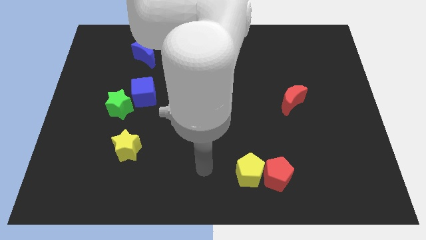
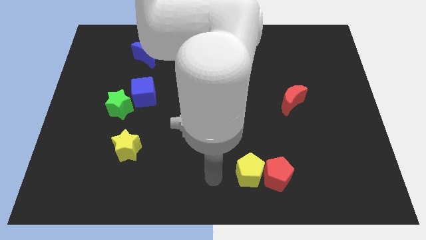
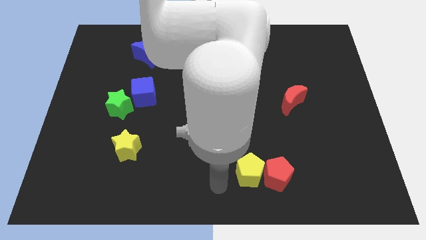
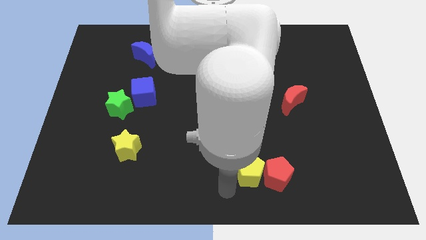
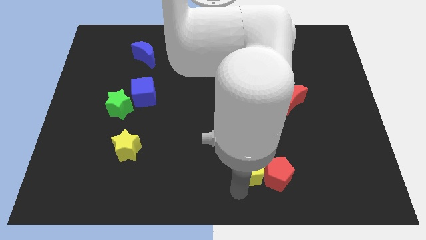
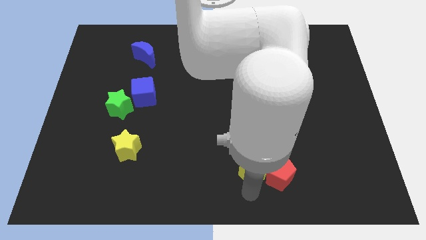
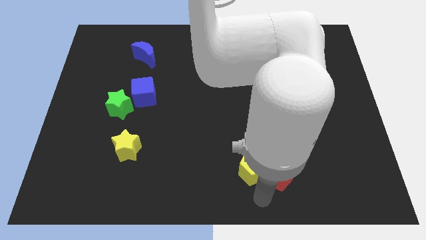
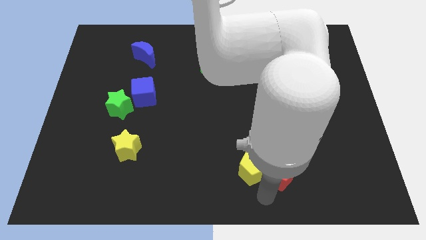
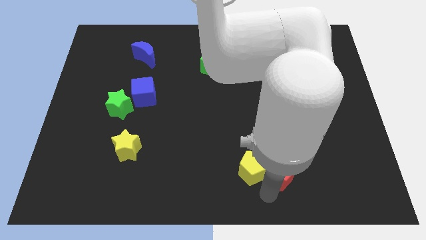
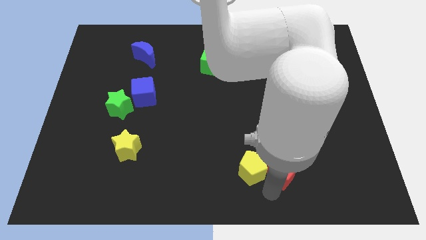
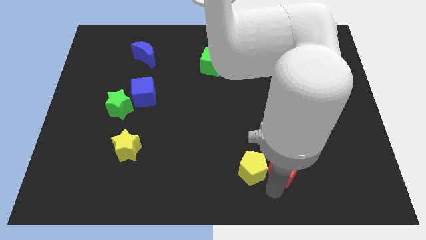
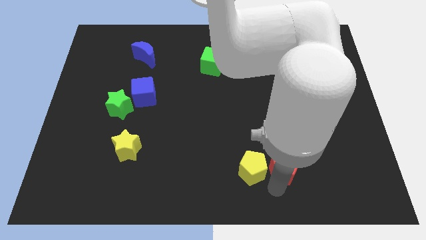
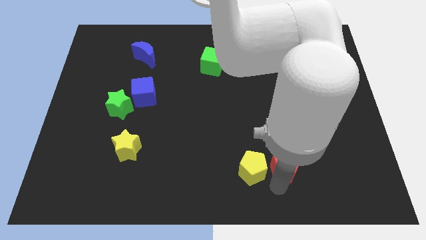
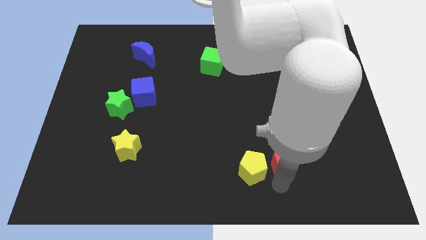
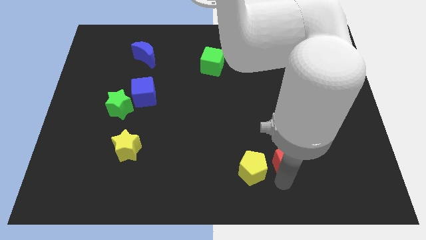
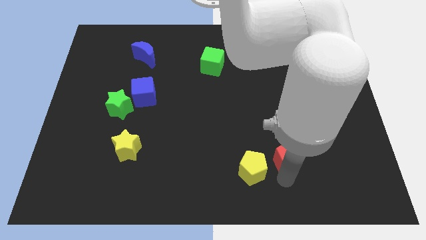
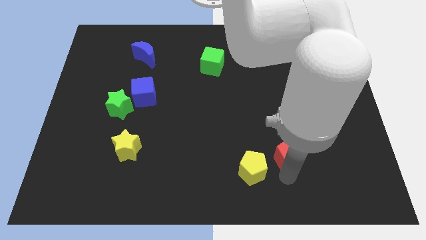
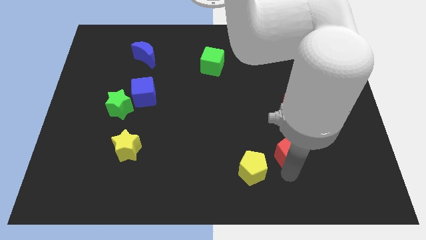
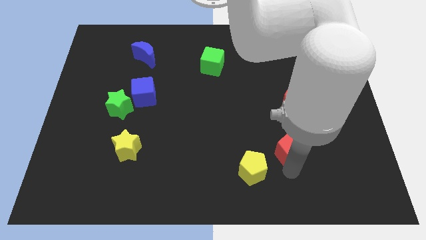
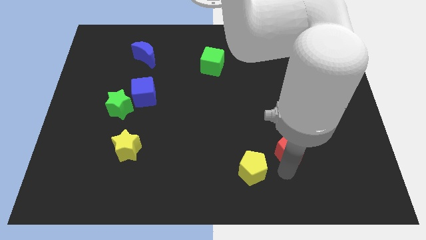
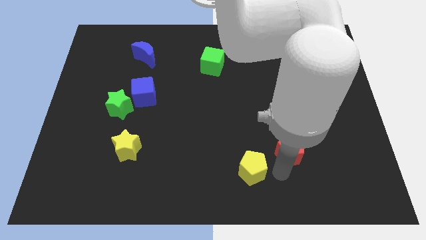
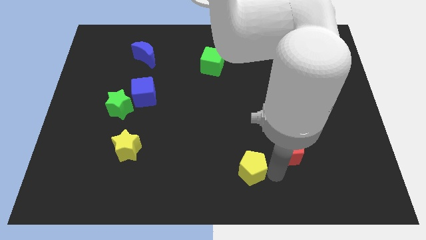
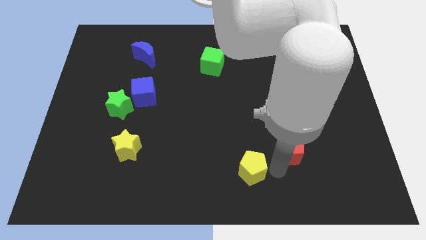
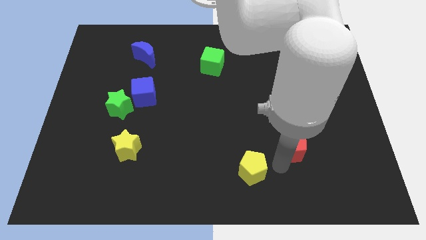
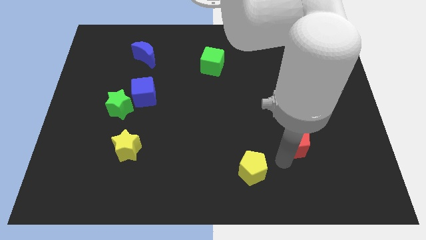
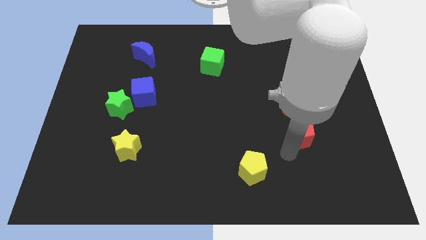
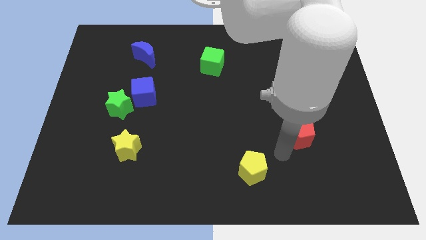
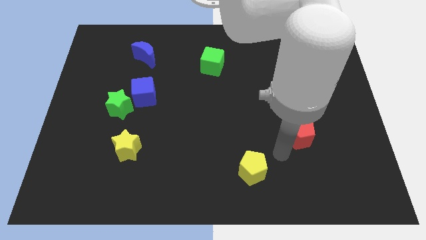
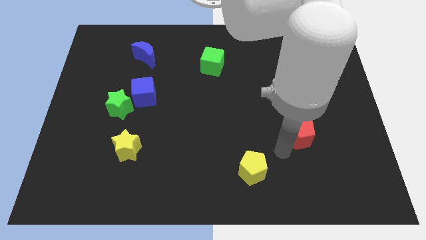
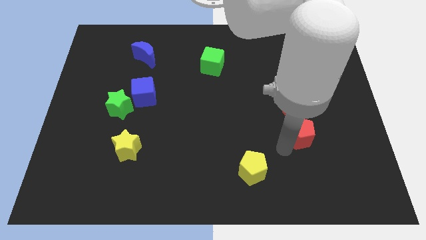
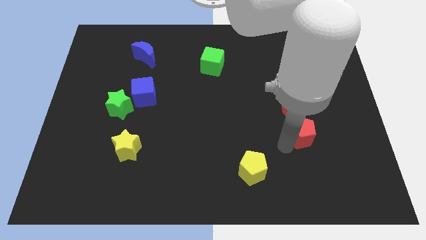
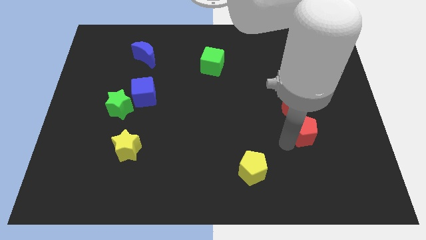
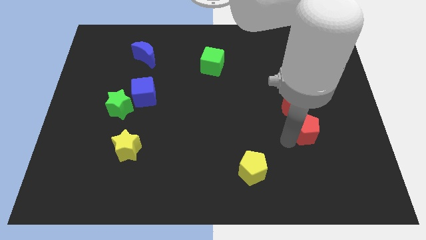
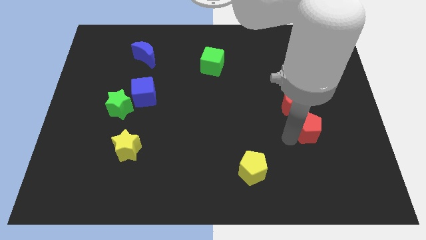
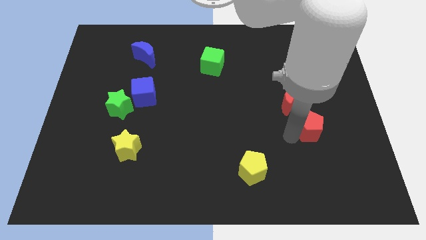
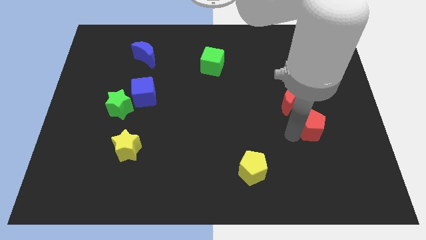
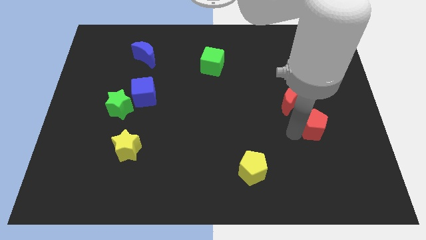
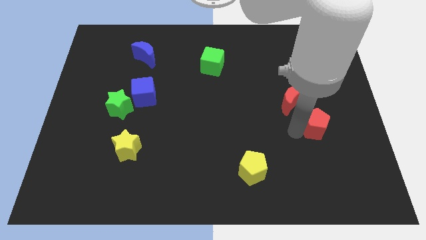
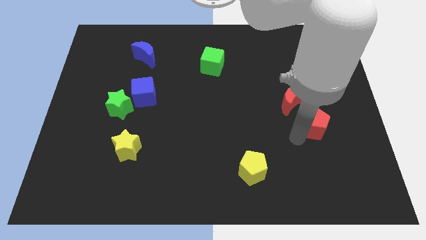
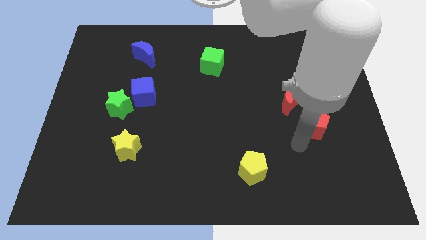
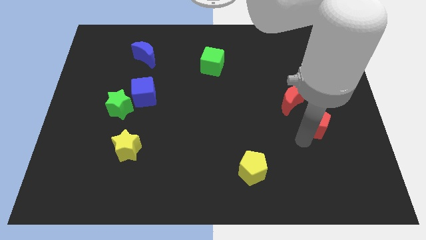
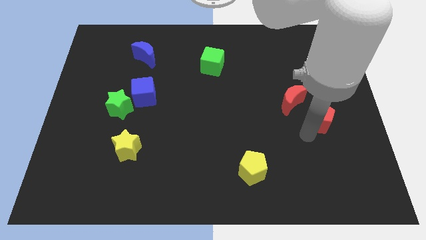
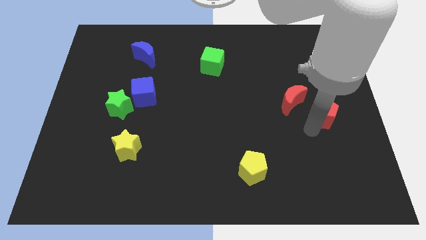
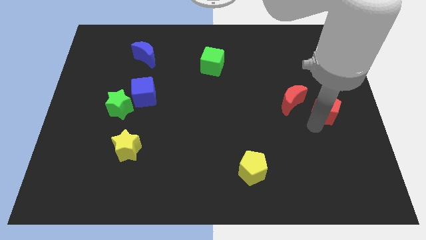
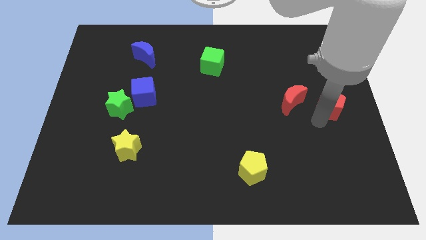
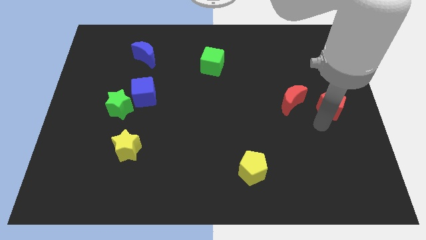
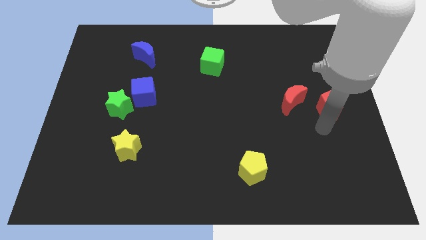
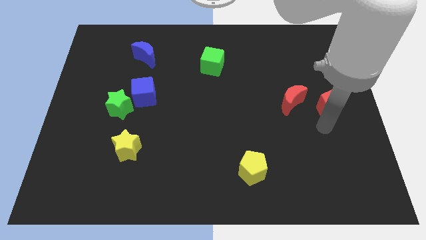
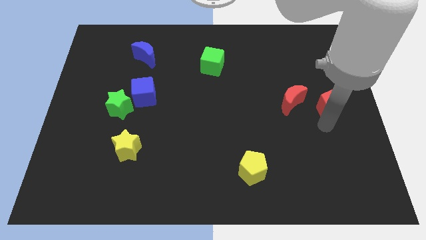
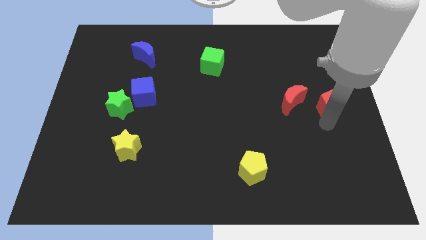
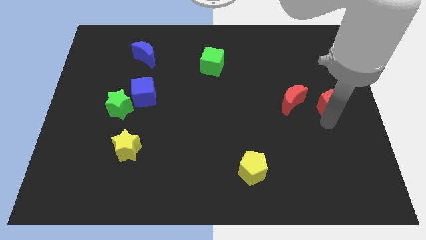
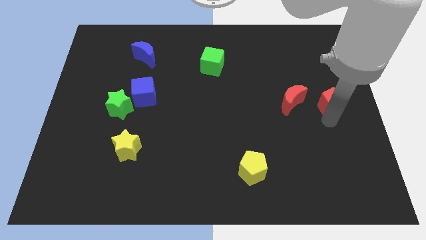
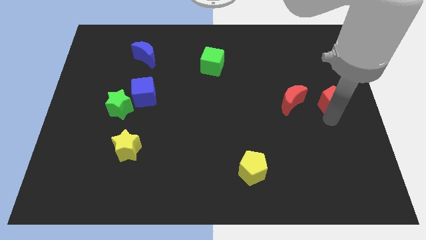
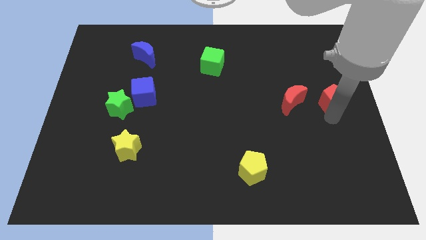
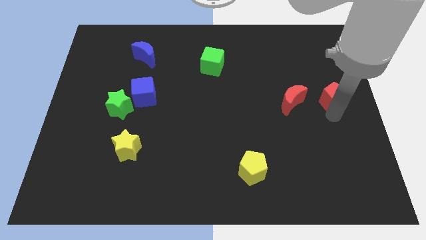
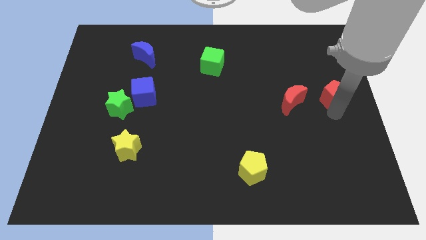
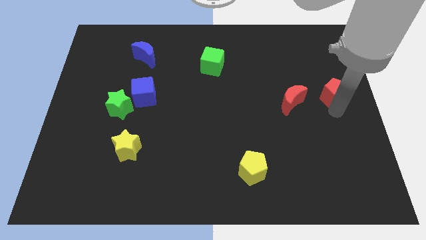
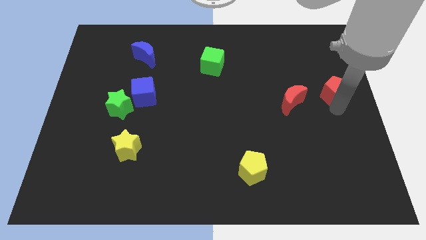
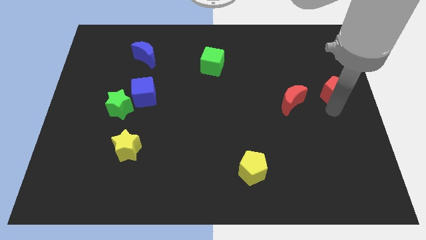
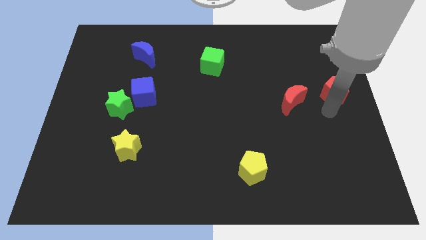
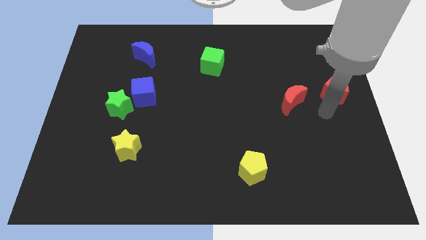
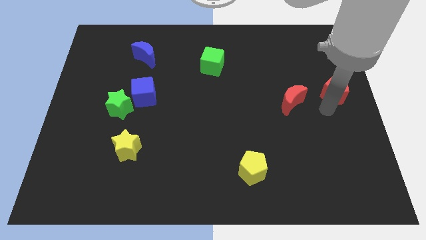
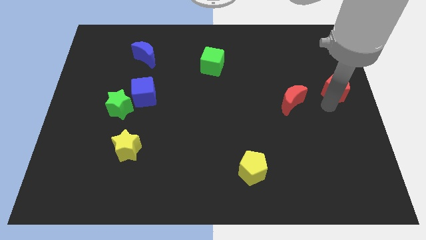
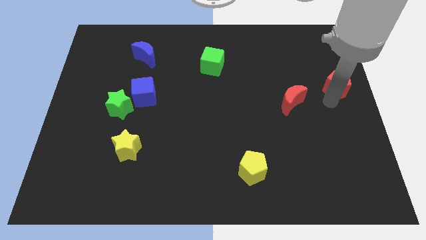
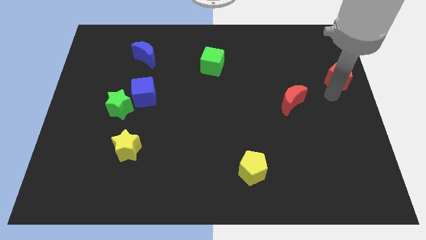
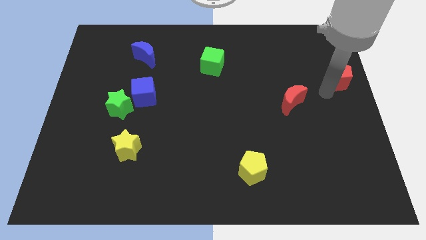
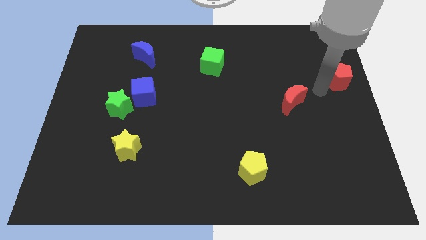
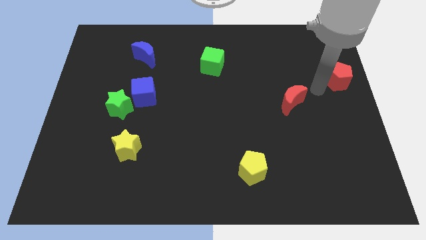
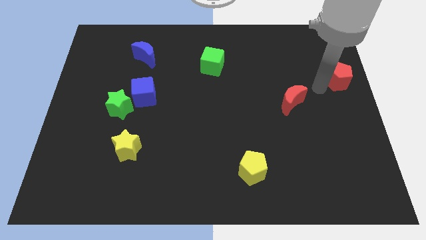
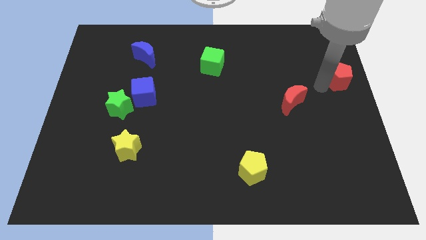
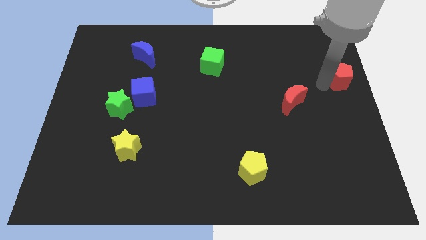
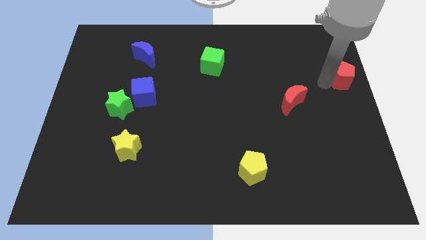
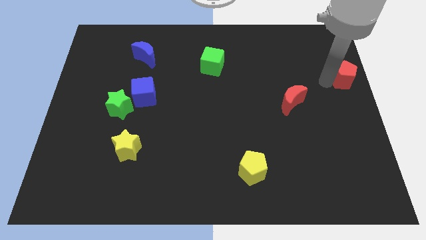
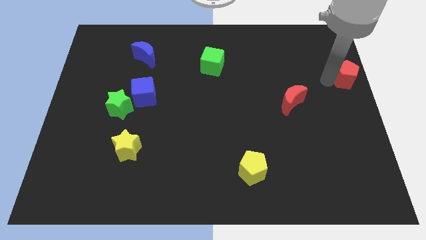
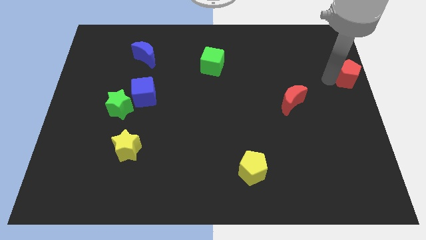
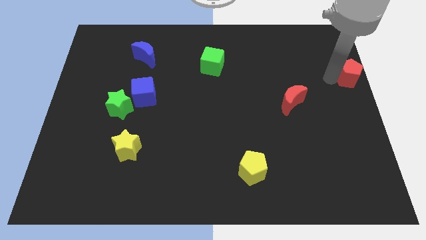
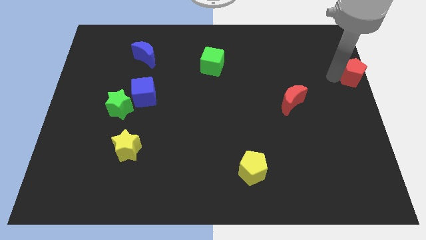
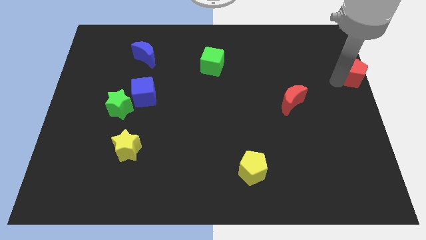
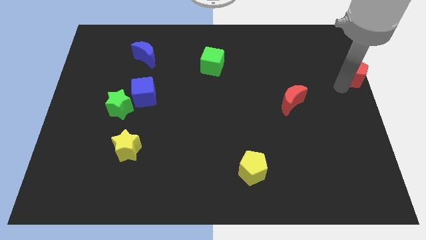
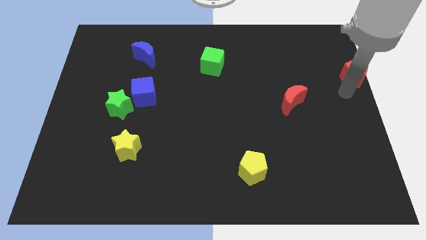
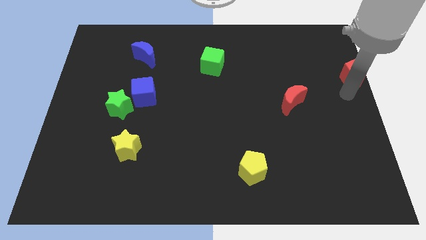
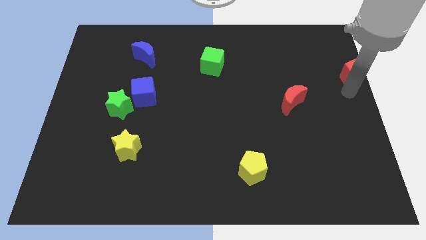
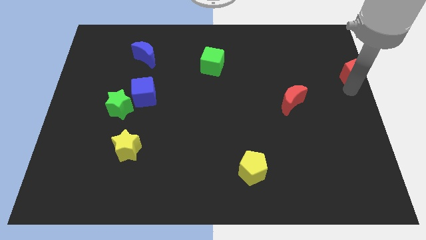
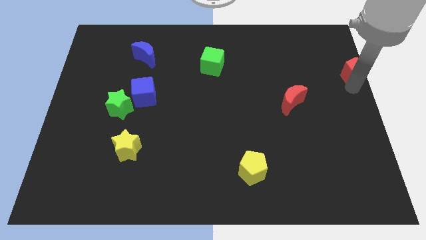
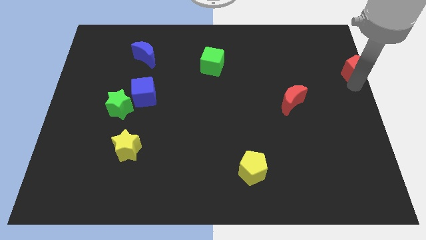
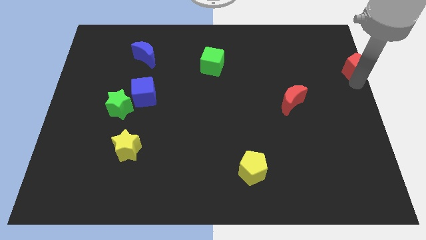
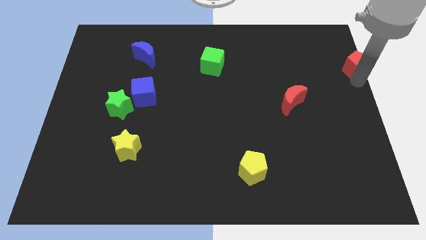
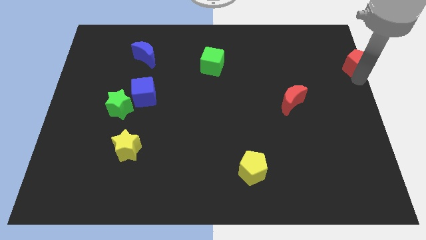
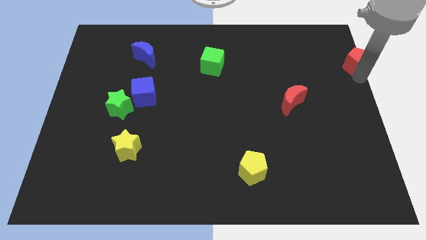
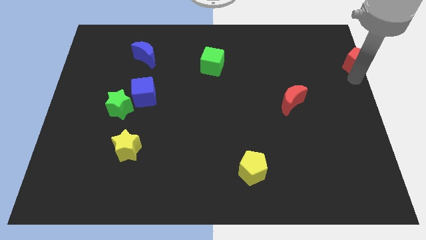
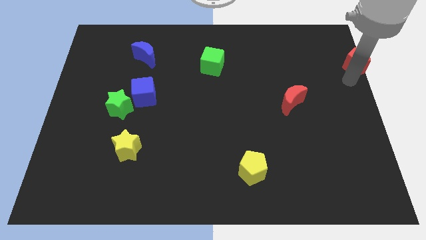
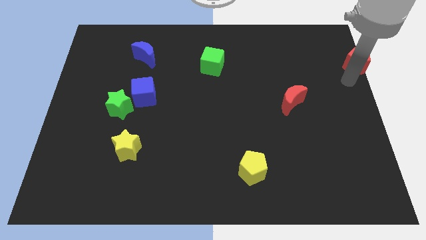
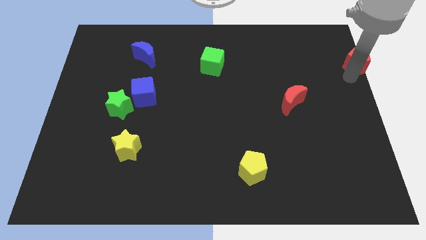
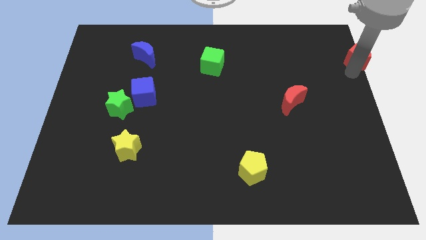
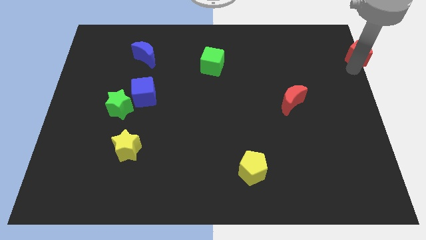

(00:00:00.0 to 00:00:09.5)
slide the red pentagon to the top right corner
